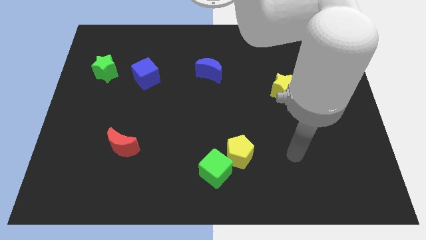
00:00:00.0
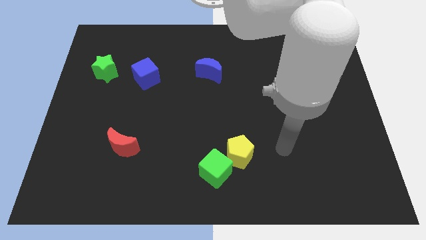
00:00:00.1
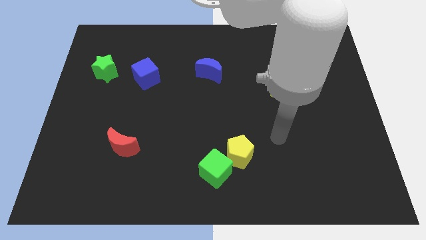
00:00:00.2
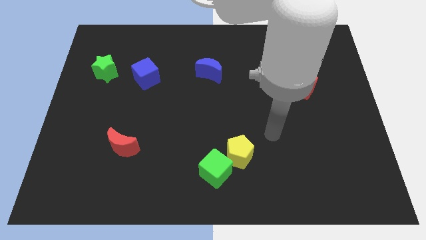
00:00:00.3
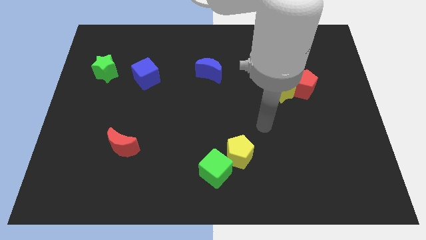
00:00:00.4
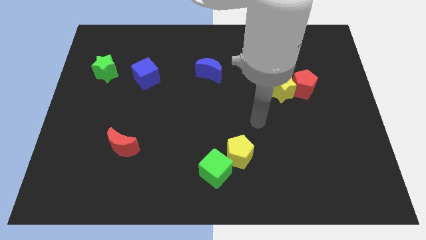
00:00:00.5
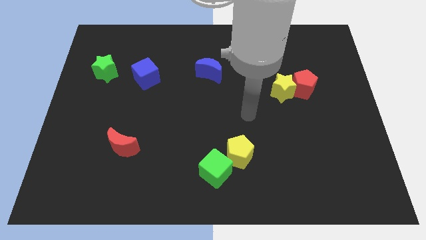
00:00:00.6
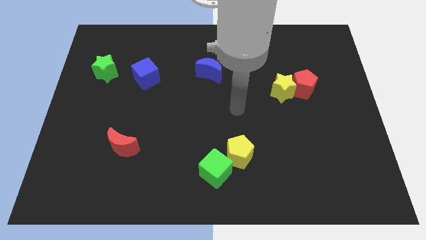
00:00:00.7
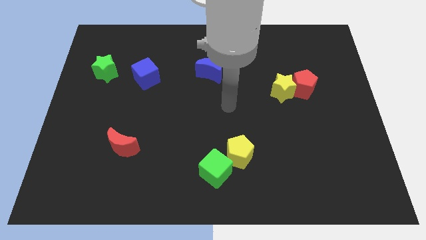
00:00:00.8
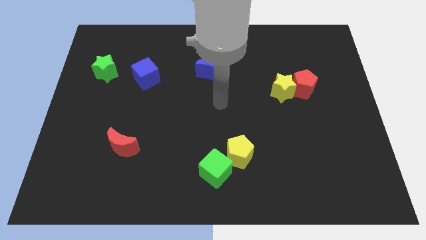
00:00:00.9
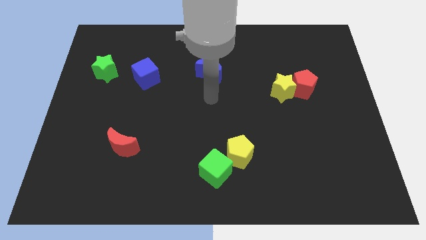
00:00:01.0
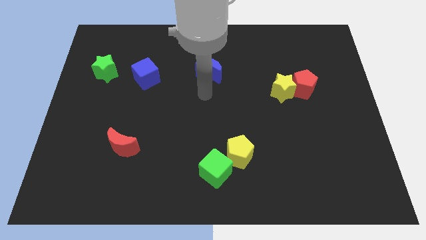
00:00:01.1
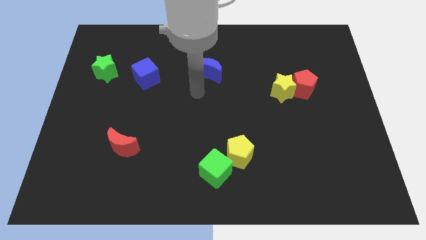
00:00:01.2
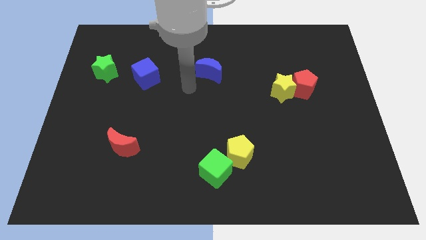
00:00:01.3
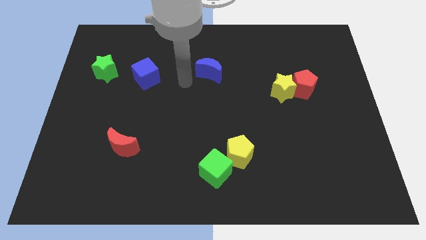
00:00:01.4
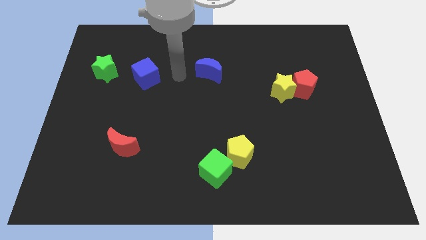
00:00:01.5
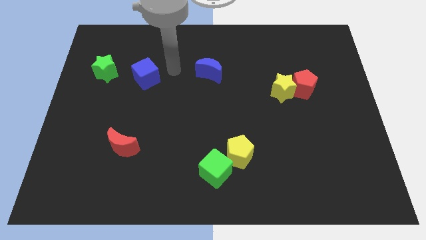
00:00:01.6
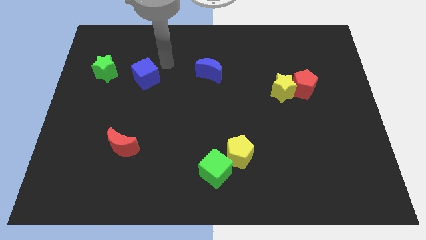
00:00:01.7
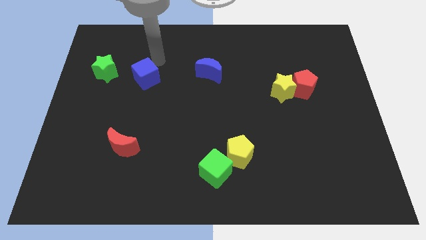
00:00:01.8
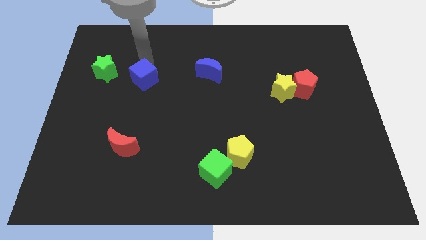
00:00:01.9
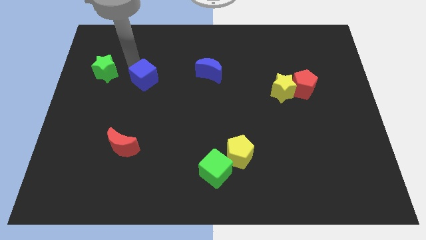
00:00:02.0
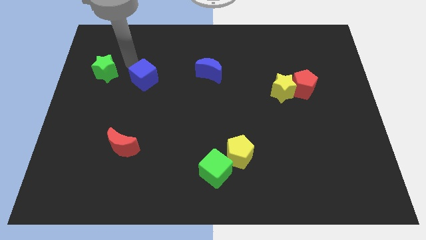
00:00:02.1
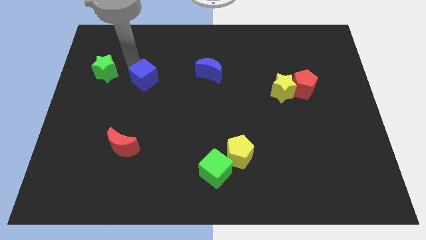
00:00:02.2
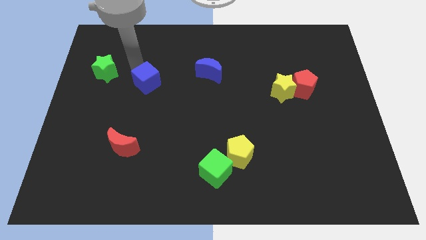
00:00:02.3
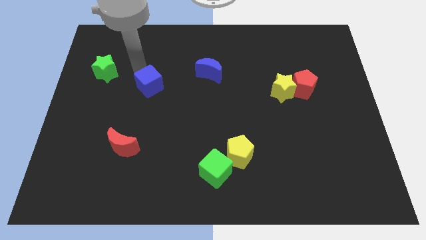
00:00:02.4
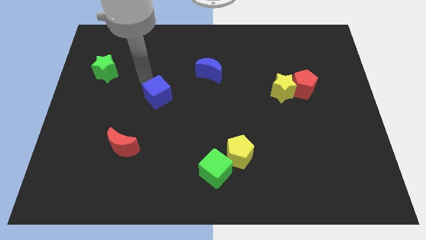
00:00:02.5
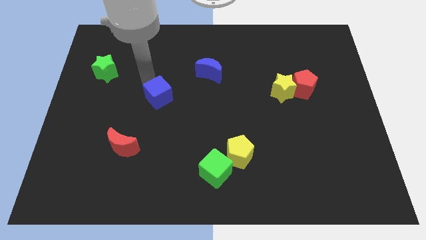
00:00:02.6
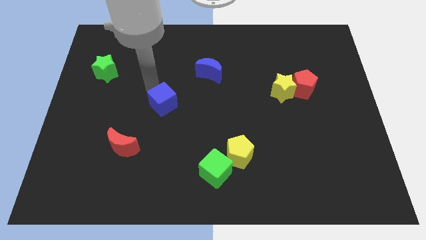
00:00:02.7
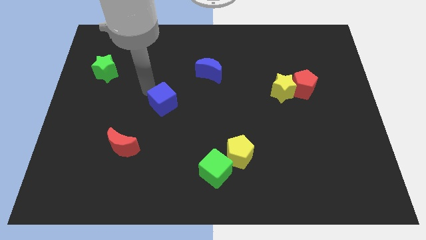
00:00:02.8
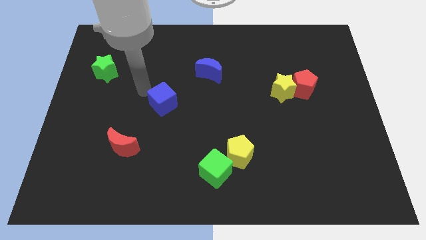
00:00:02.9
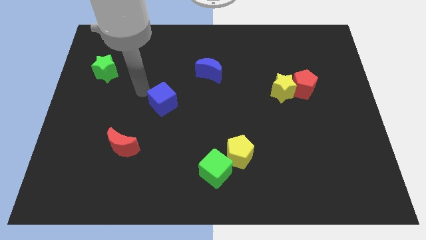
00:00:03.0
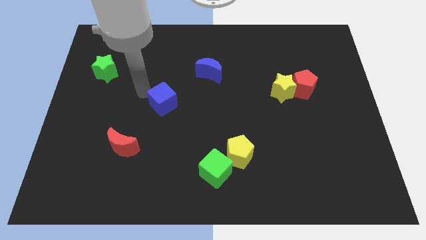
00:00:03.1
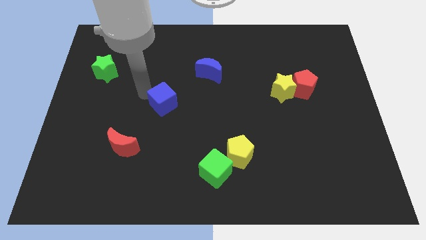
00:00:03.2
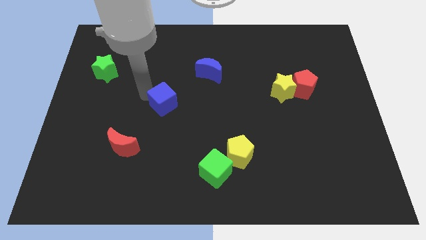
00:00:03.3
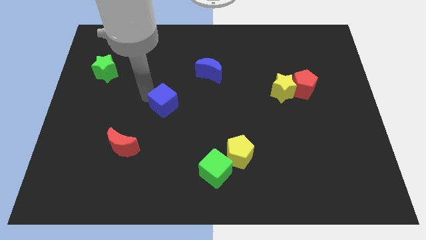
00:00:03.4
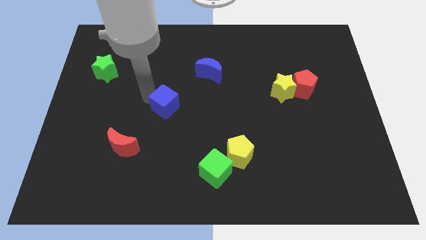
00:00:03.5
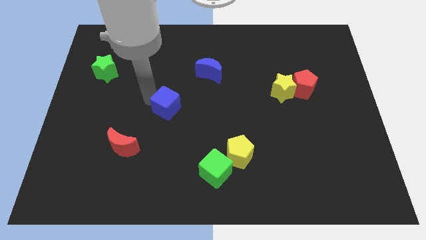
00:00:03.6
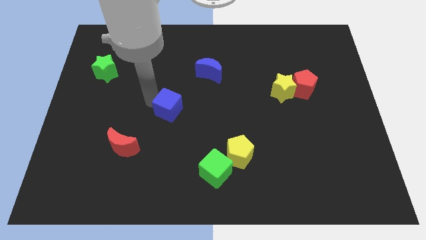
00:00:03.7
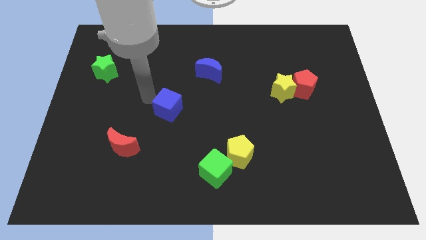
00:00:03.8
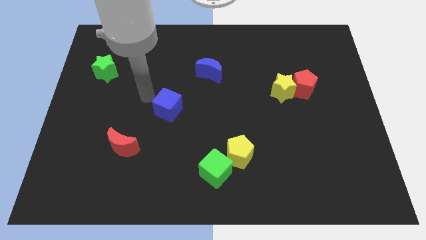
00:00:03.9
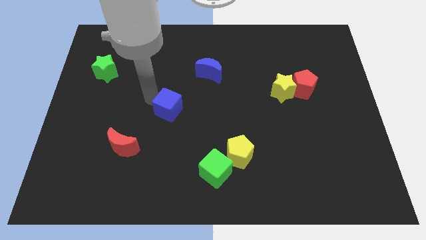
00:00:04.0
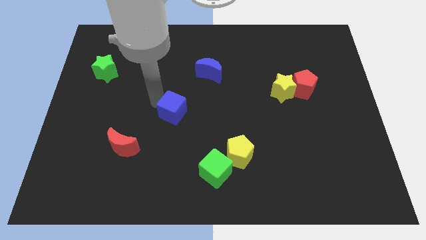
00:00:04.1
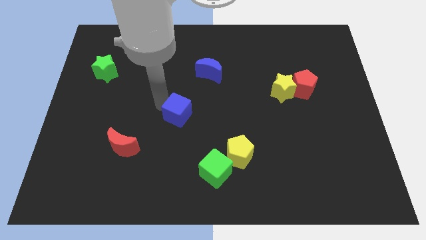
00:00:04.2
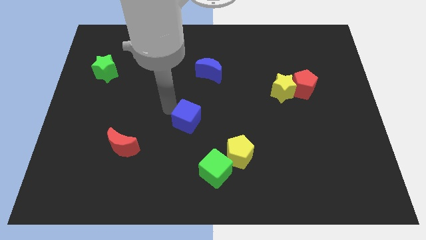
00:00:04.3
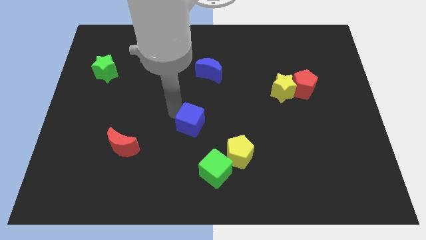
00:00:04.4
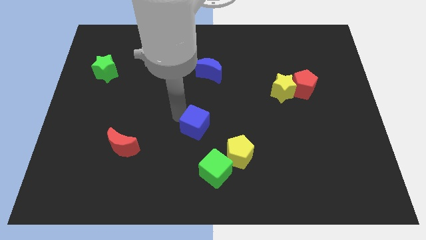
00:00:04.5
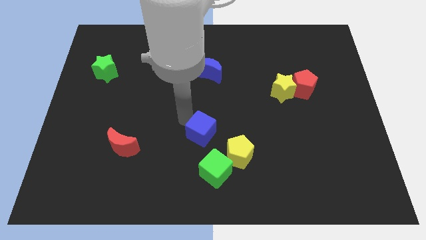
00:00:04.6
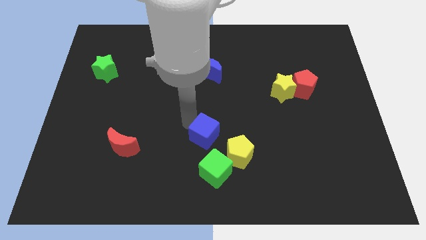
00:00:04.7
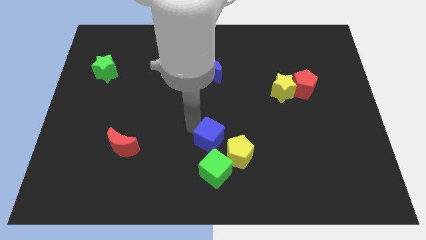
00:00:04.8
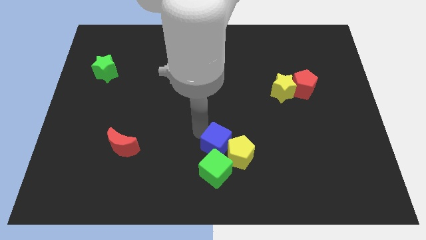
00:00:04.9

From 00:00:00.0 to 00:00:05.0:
move the blue cube to the yellow pentagon
